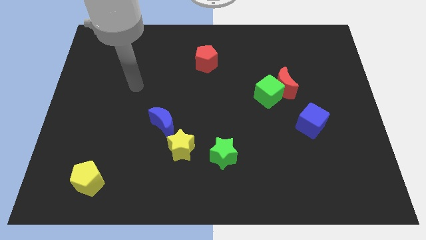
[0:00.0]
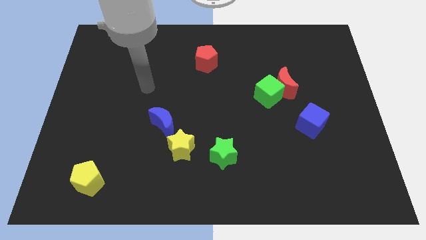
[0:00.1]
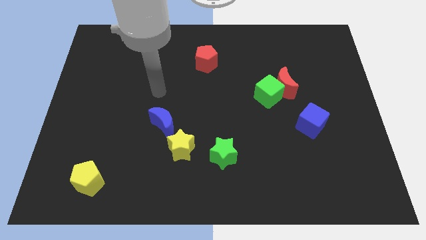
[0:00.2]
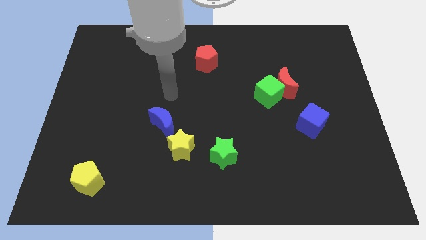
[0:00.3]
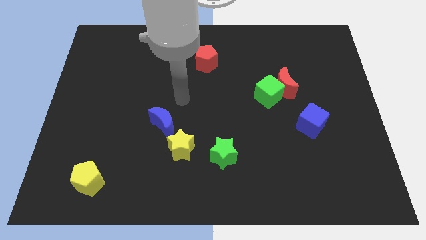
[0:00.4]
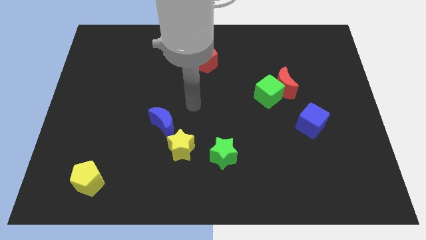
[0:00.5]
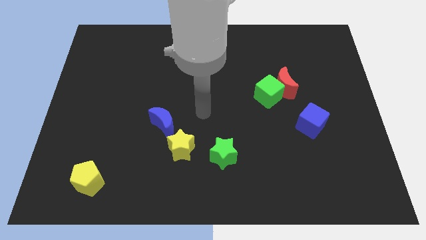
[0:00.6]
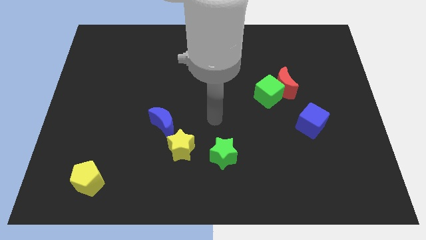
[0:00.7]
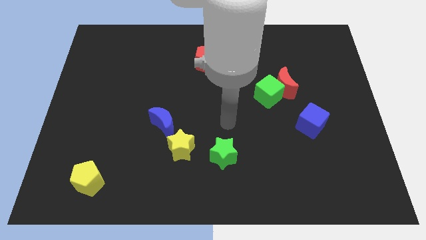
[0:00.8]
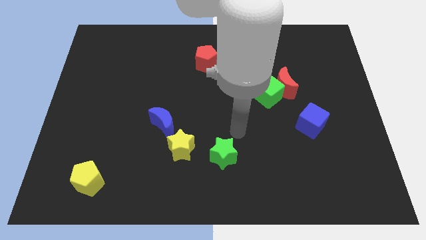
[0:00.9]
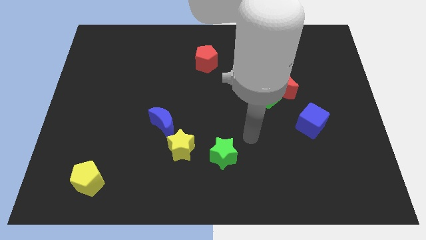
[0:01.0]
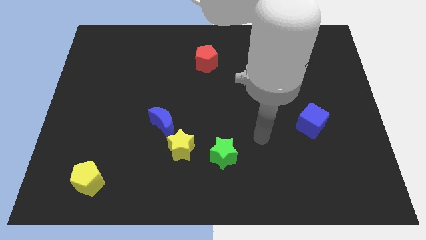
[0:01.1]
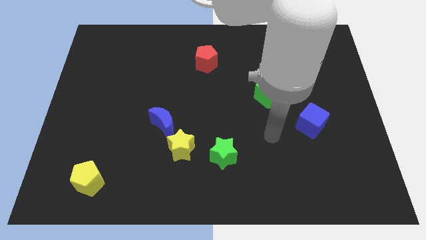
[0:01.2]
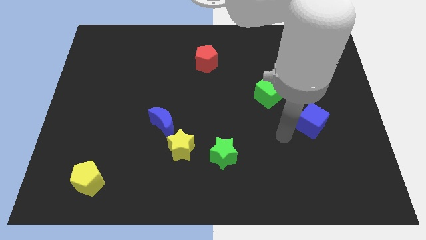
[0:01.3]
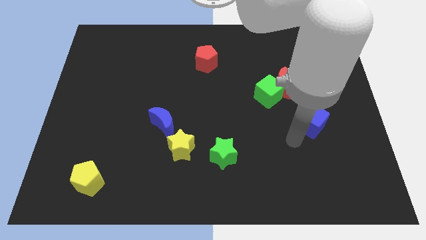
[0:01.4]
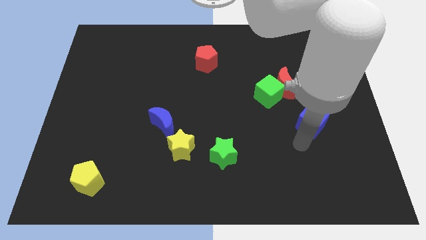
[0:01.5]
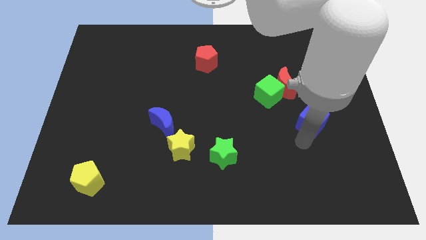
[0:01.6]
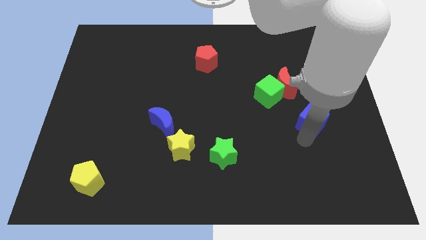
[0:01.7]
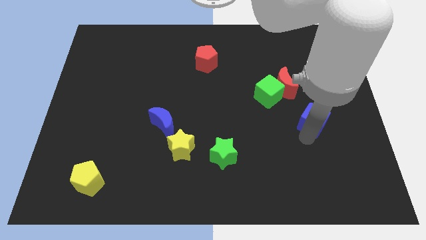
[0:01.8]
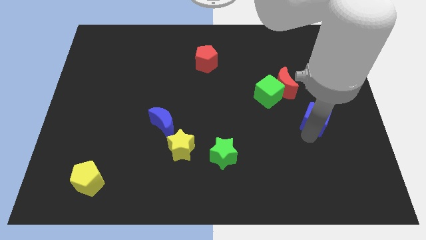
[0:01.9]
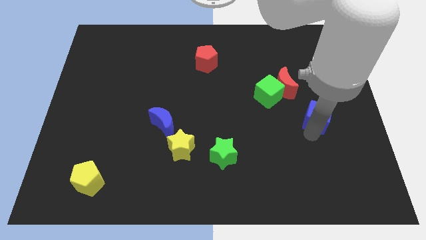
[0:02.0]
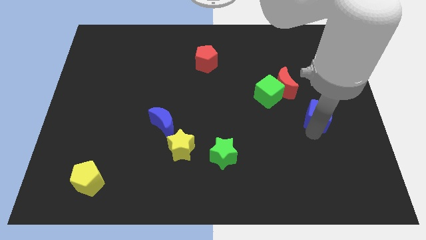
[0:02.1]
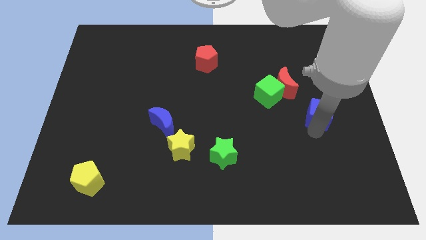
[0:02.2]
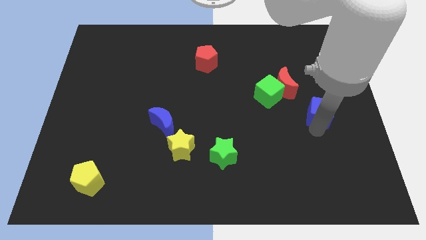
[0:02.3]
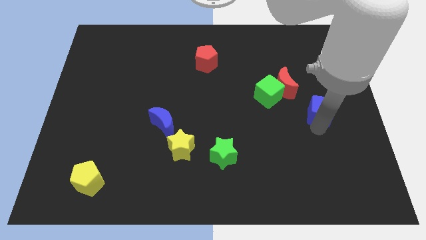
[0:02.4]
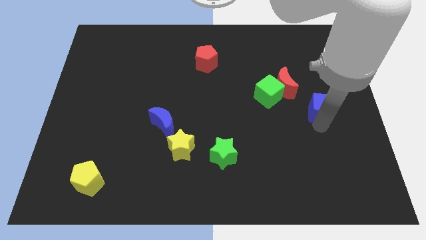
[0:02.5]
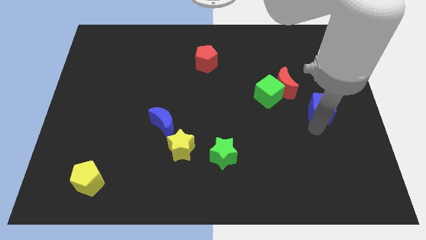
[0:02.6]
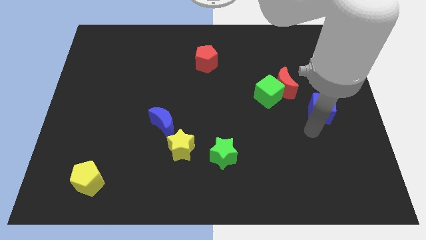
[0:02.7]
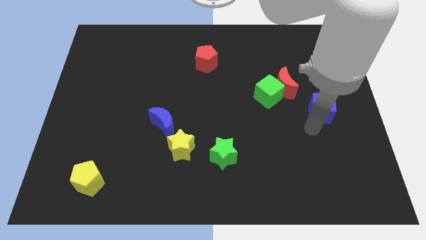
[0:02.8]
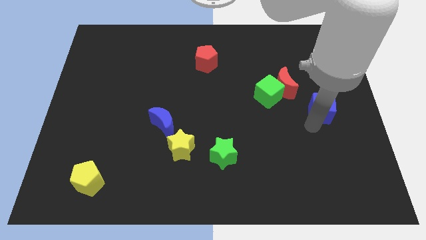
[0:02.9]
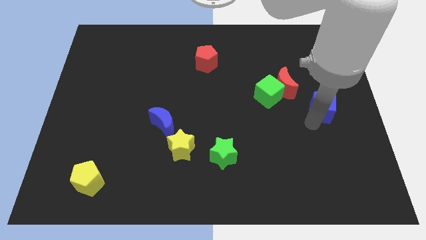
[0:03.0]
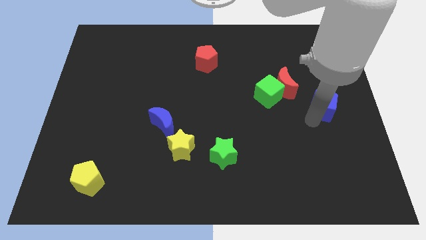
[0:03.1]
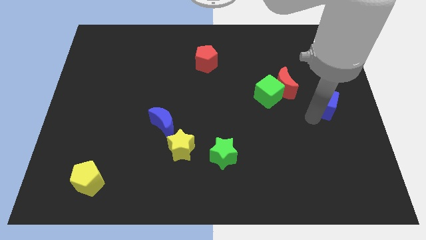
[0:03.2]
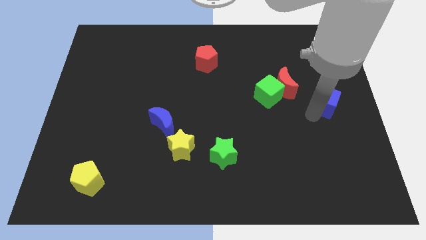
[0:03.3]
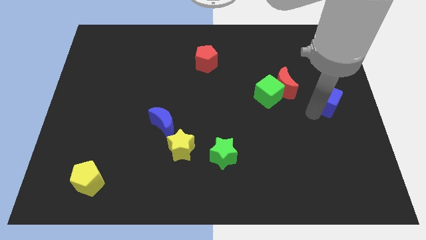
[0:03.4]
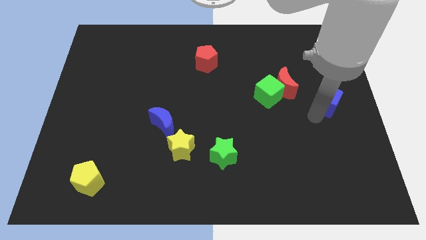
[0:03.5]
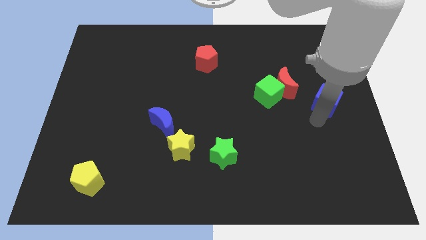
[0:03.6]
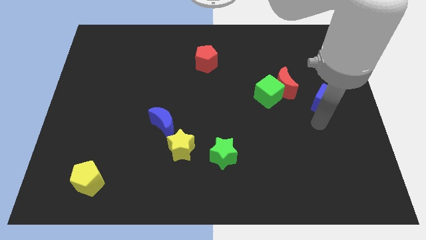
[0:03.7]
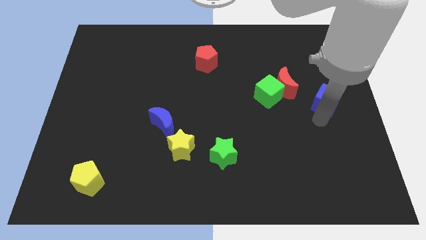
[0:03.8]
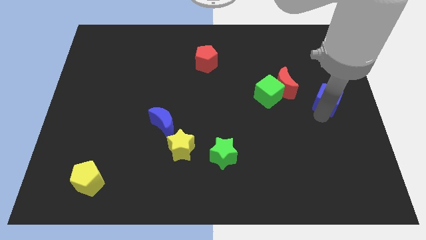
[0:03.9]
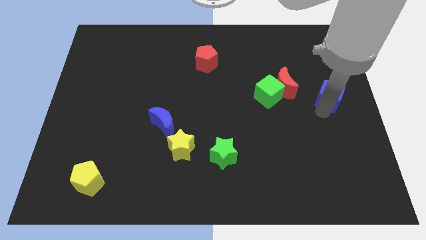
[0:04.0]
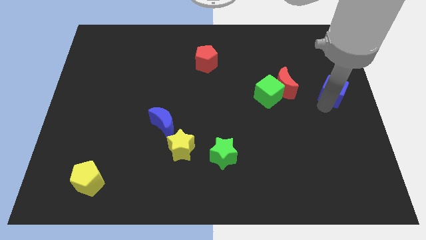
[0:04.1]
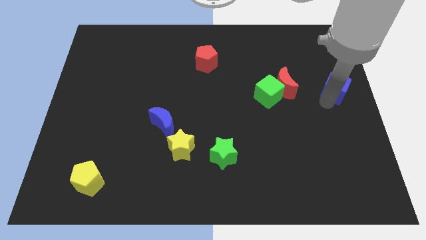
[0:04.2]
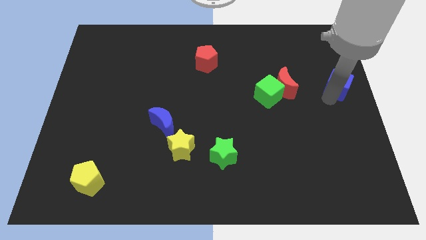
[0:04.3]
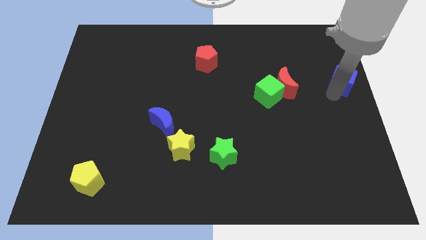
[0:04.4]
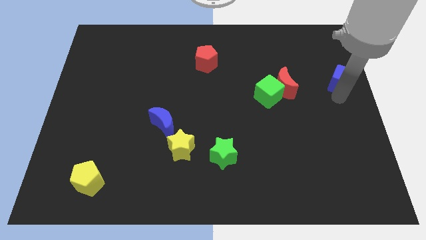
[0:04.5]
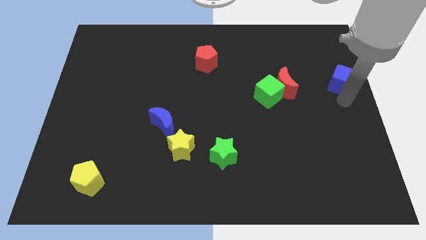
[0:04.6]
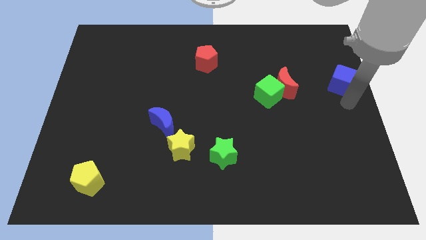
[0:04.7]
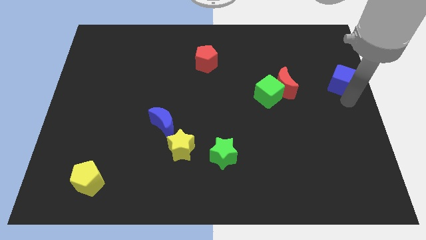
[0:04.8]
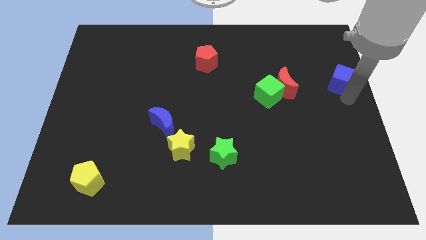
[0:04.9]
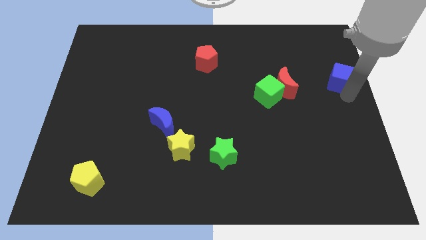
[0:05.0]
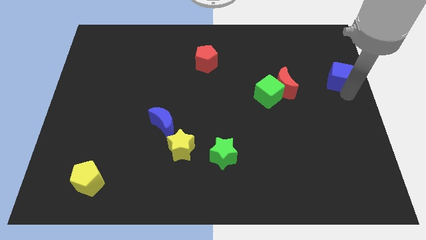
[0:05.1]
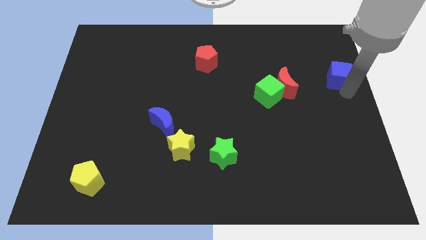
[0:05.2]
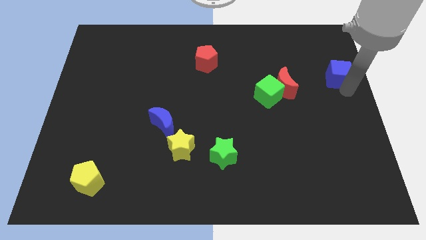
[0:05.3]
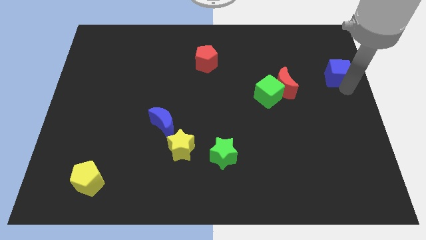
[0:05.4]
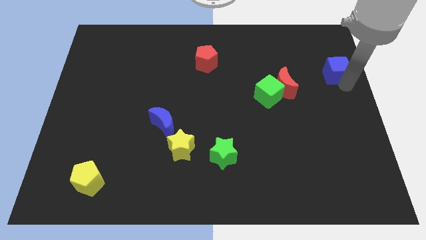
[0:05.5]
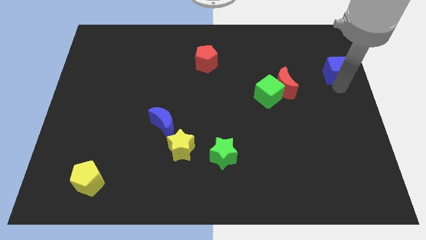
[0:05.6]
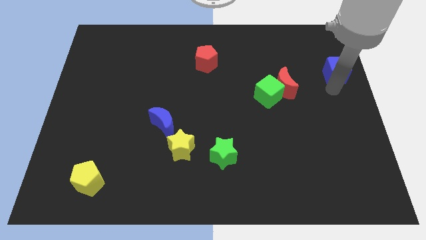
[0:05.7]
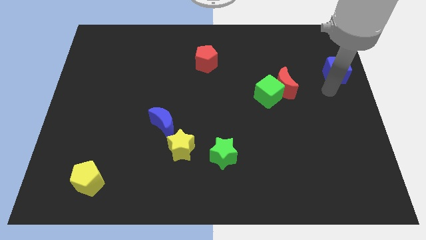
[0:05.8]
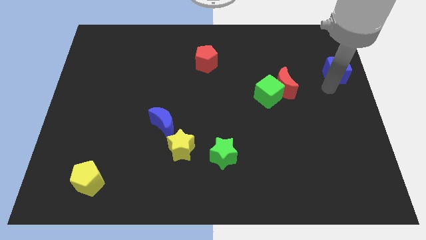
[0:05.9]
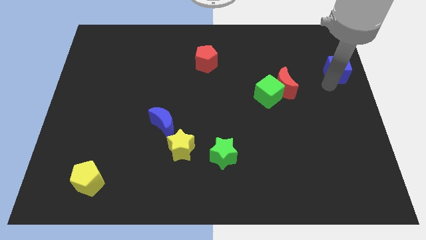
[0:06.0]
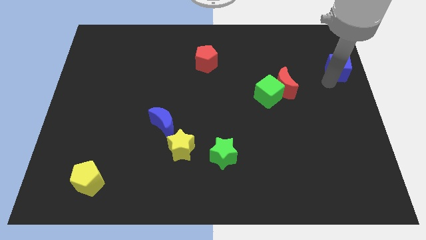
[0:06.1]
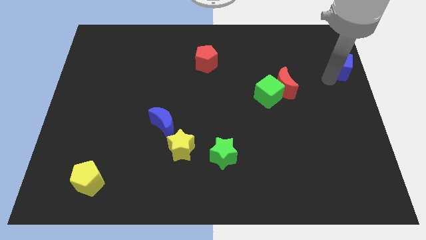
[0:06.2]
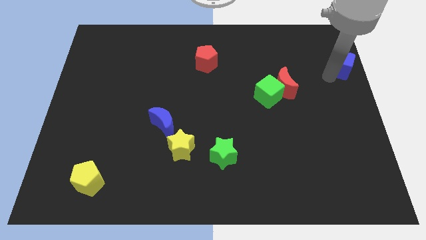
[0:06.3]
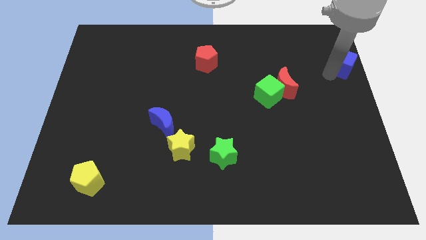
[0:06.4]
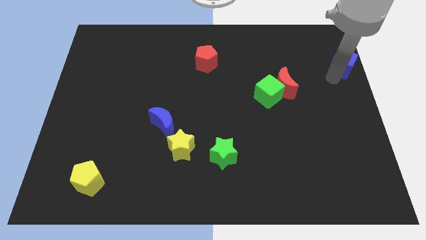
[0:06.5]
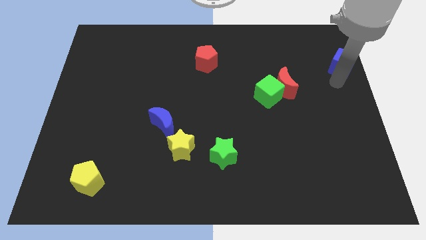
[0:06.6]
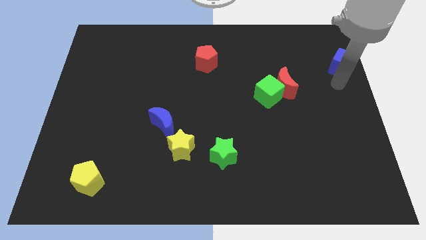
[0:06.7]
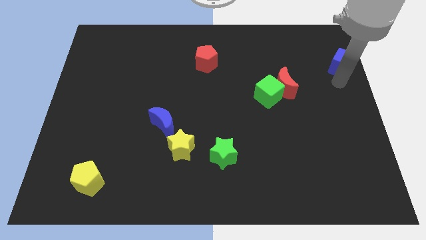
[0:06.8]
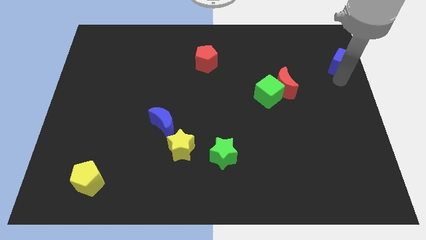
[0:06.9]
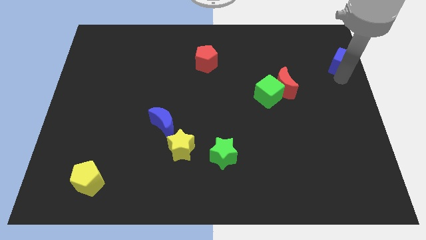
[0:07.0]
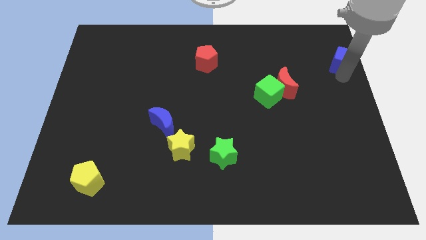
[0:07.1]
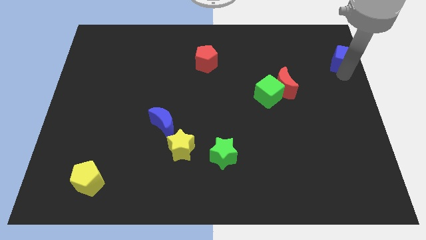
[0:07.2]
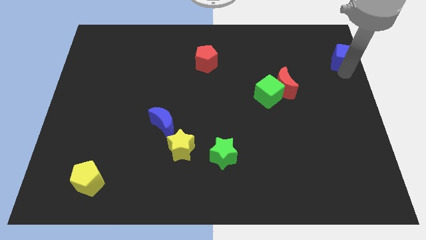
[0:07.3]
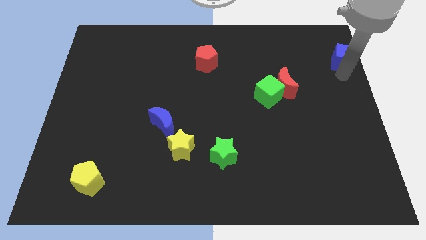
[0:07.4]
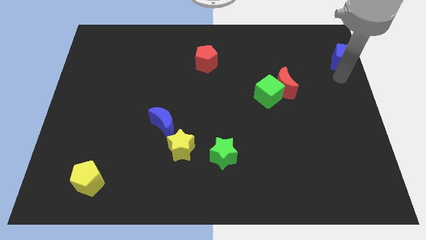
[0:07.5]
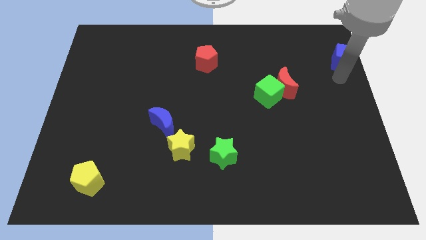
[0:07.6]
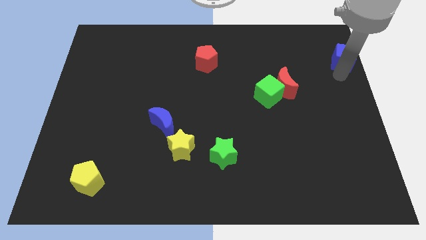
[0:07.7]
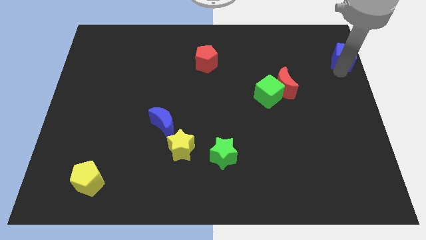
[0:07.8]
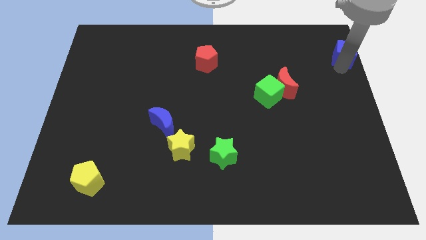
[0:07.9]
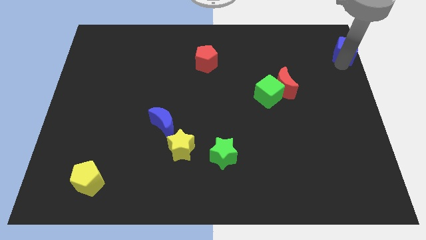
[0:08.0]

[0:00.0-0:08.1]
move the blue cube to the upper right corner

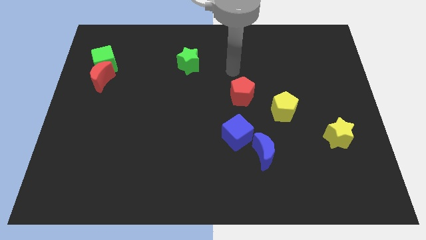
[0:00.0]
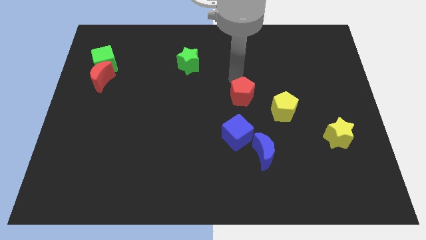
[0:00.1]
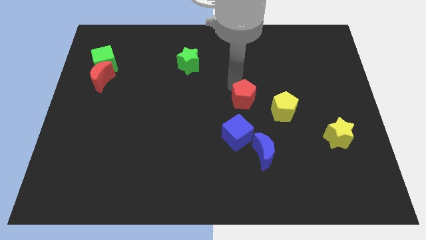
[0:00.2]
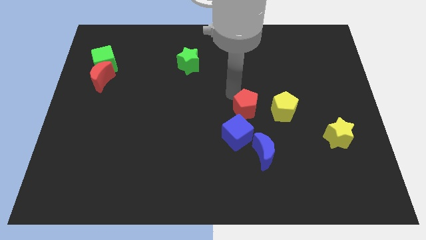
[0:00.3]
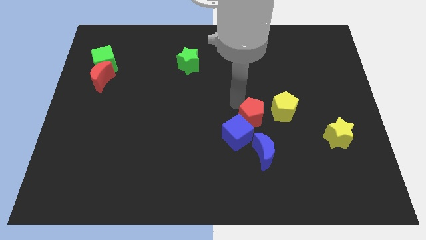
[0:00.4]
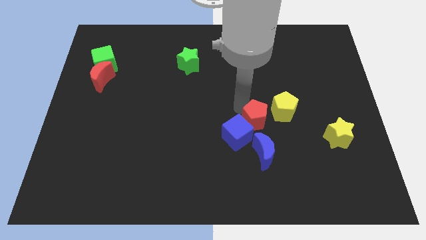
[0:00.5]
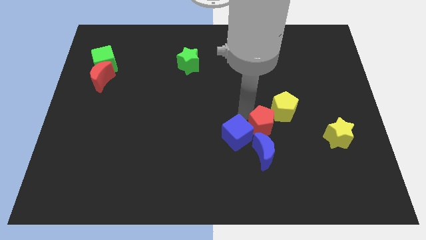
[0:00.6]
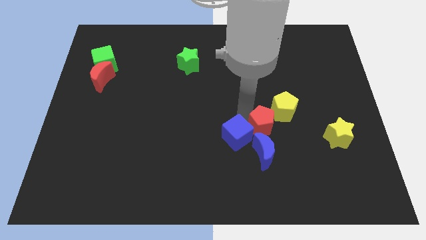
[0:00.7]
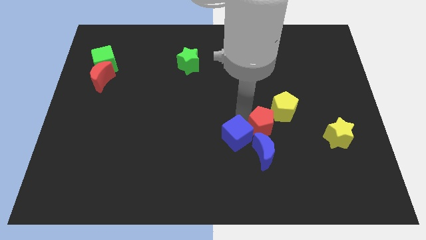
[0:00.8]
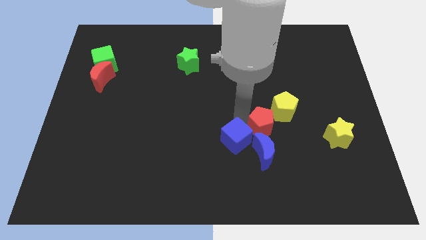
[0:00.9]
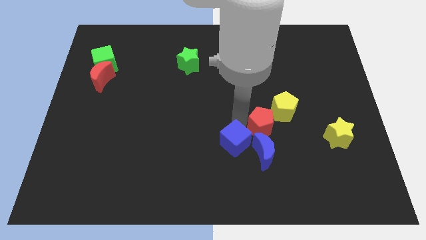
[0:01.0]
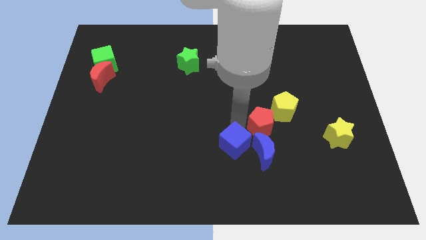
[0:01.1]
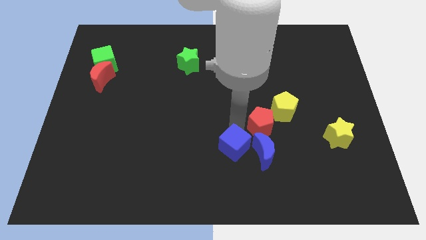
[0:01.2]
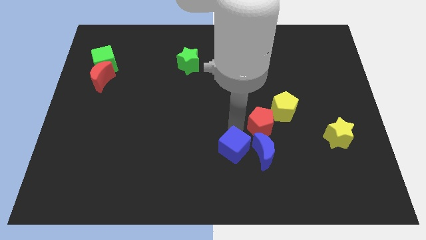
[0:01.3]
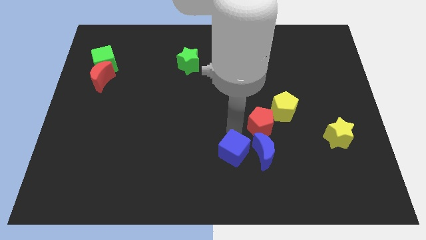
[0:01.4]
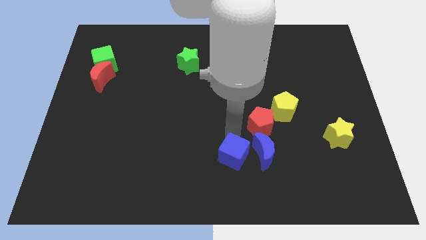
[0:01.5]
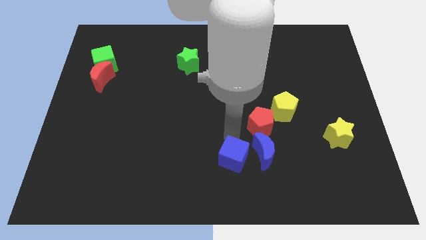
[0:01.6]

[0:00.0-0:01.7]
slide the blue cube to the bottom
